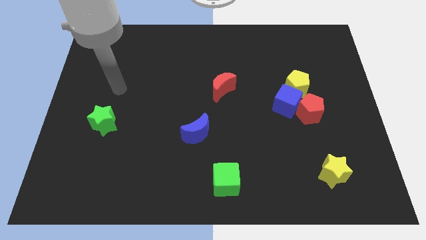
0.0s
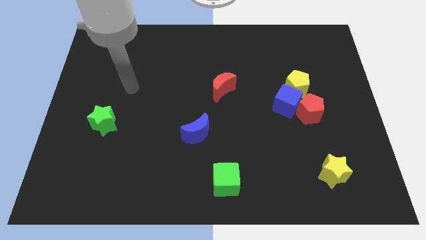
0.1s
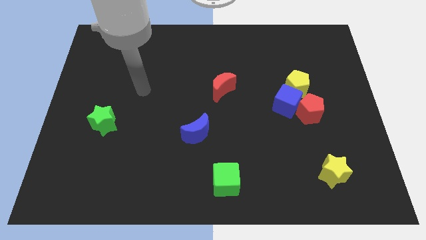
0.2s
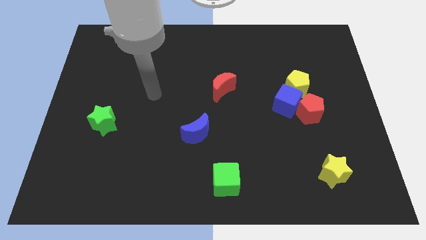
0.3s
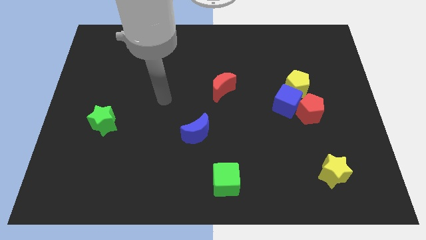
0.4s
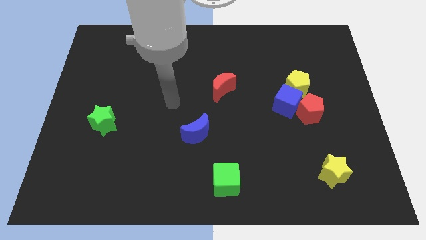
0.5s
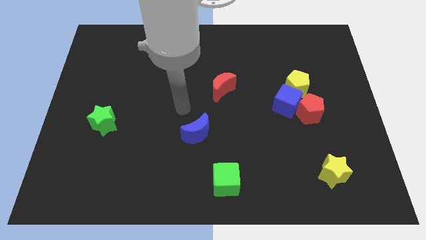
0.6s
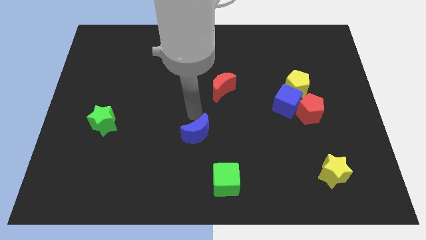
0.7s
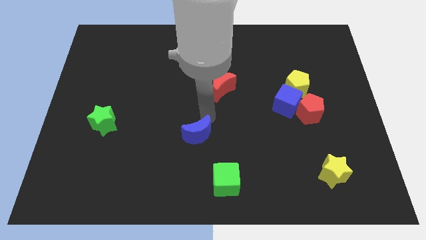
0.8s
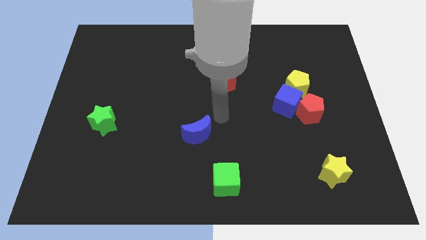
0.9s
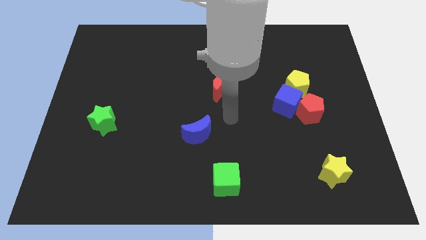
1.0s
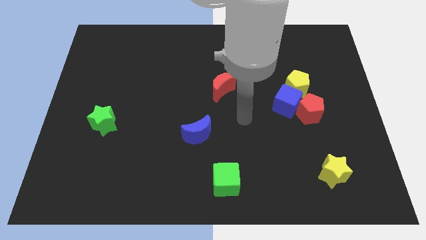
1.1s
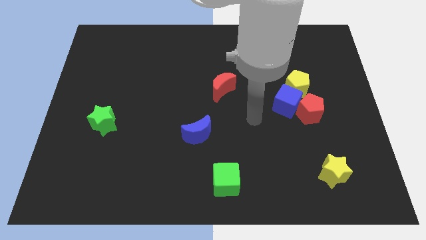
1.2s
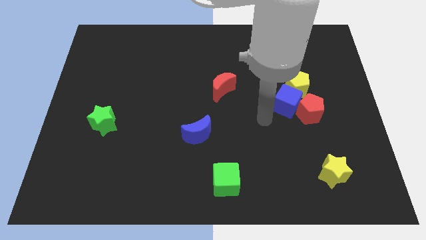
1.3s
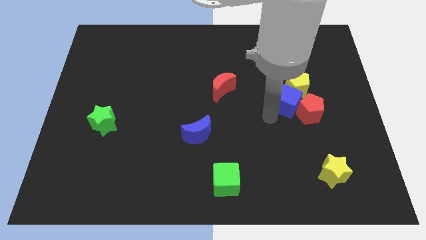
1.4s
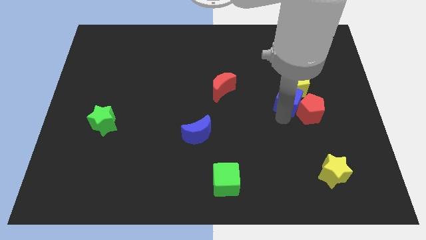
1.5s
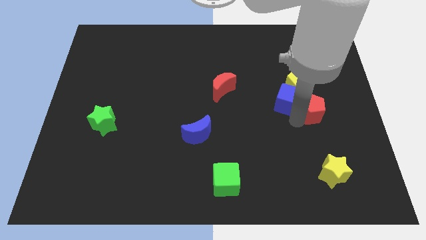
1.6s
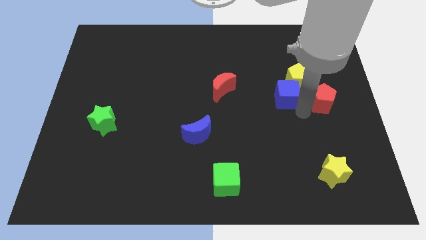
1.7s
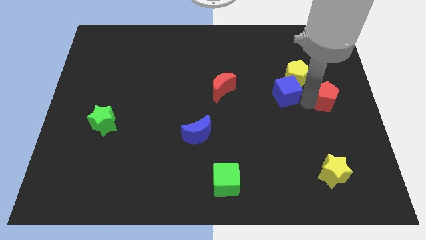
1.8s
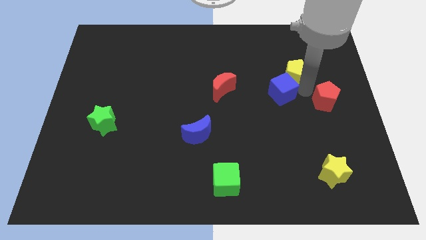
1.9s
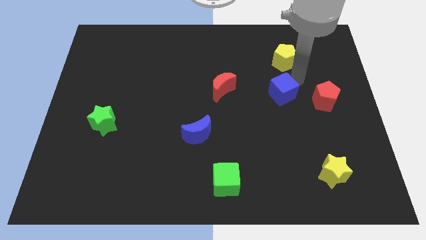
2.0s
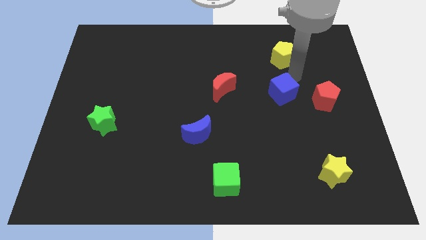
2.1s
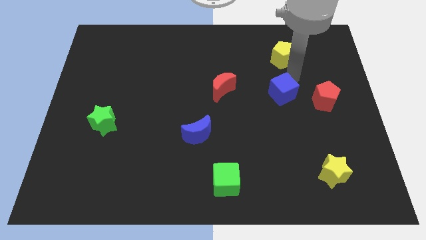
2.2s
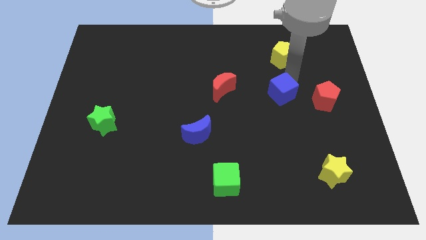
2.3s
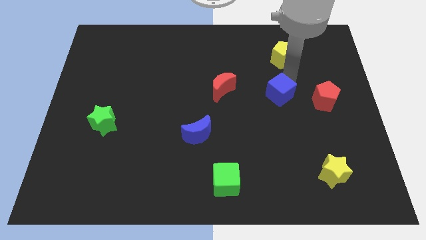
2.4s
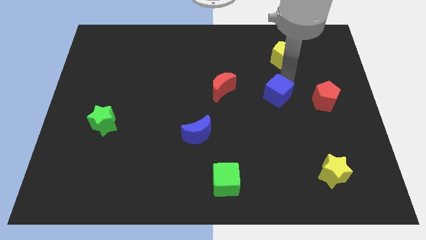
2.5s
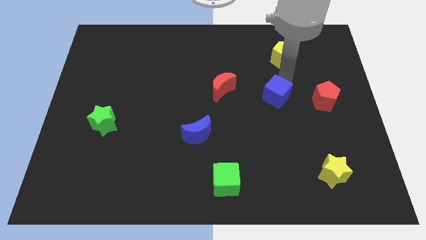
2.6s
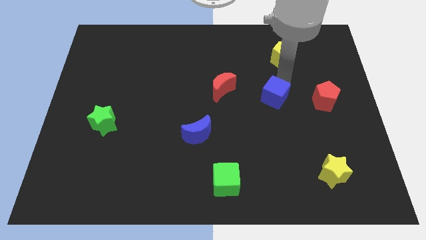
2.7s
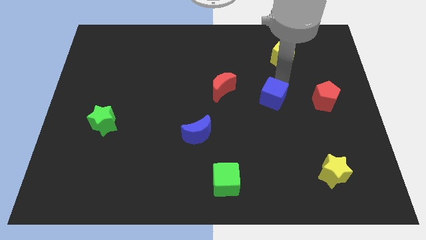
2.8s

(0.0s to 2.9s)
separate the blue cube from the red pentagon and yellow pentagon

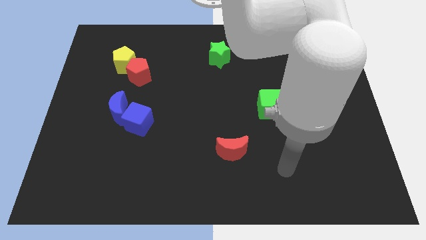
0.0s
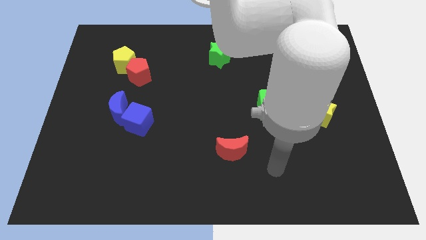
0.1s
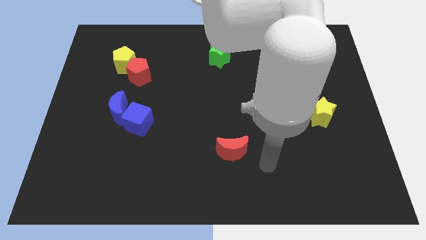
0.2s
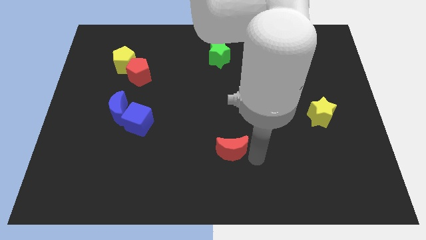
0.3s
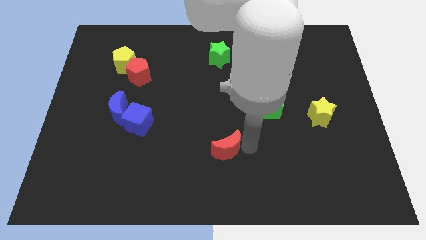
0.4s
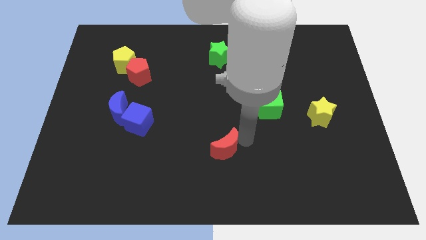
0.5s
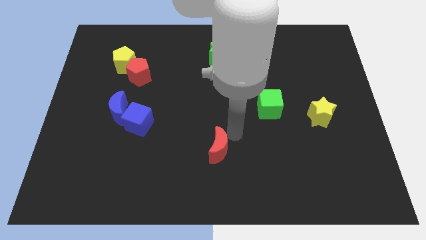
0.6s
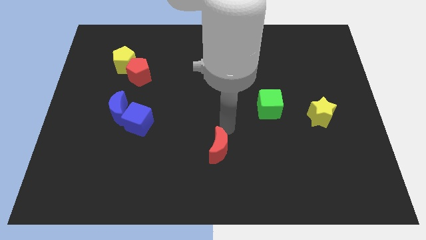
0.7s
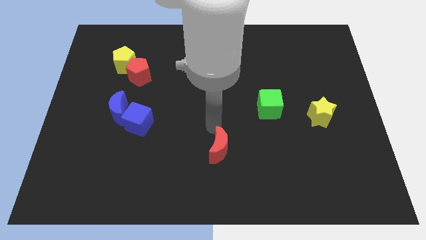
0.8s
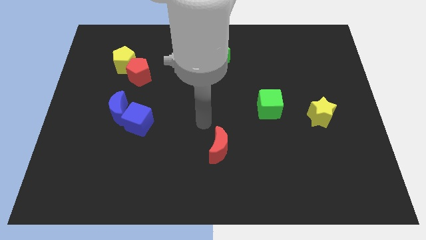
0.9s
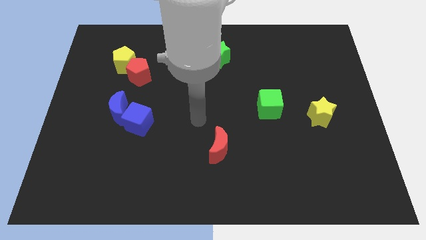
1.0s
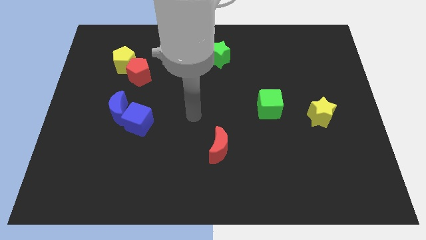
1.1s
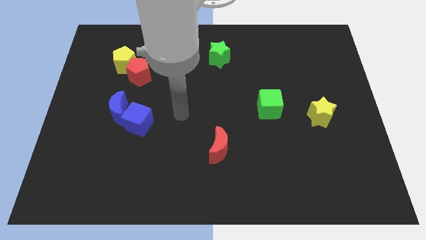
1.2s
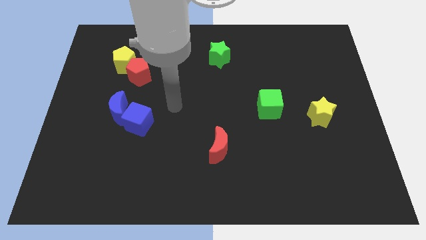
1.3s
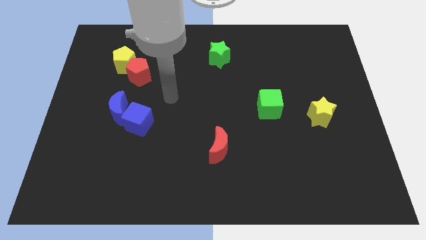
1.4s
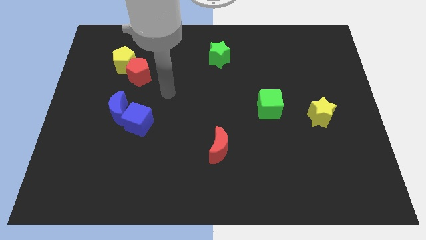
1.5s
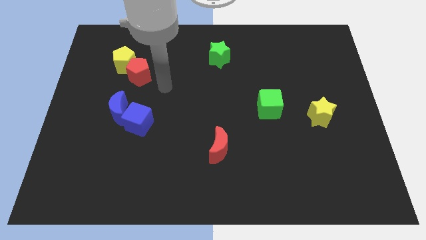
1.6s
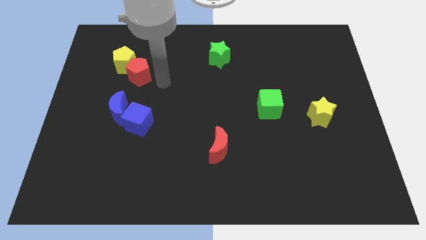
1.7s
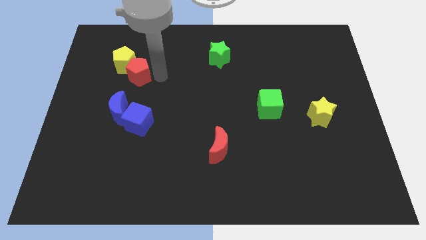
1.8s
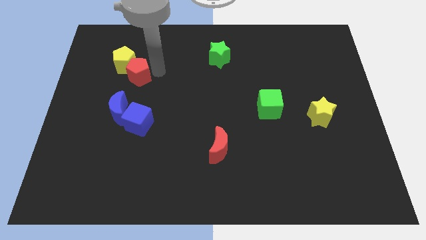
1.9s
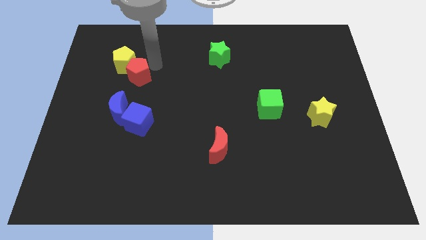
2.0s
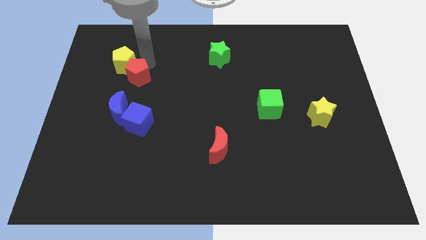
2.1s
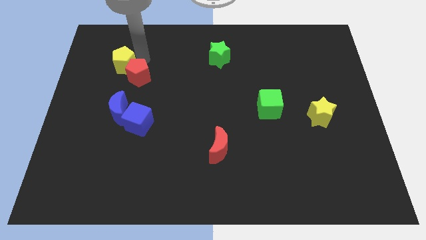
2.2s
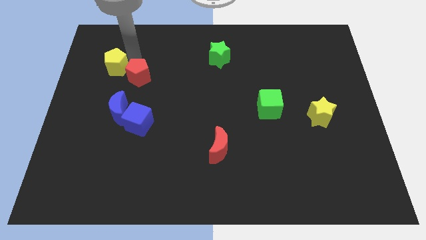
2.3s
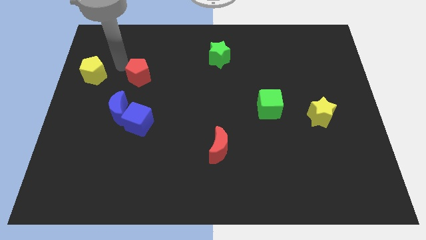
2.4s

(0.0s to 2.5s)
pull the red pentagon apart from the yellow pentagon

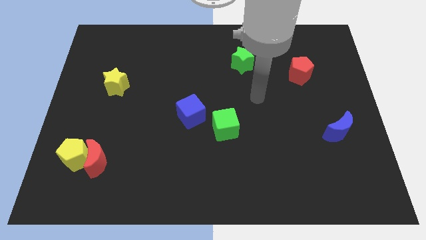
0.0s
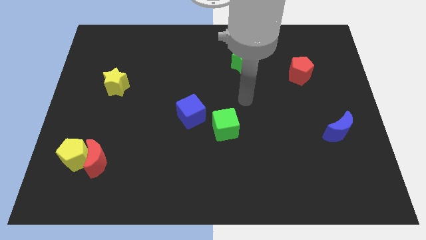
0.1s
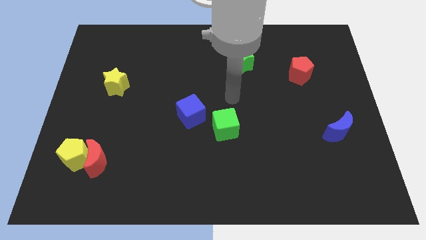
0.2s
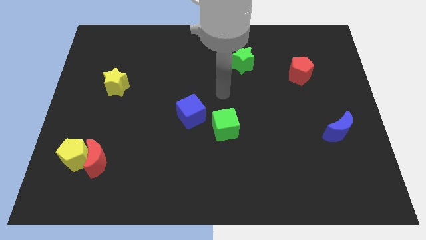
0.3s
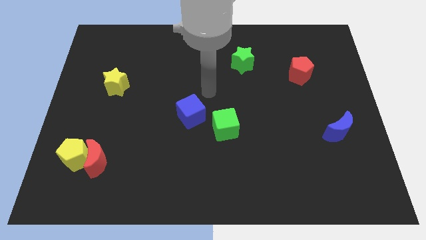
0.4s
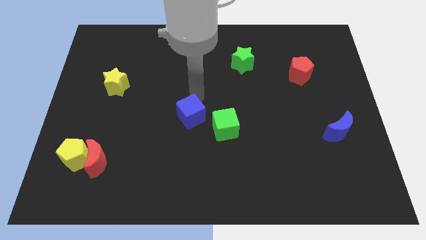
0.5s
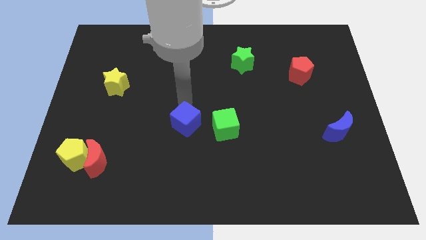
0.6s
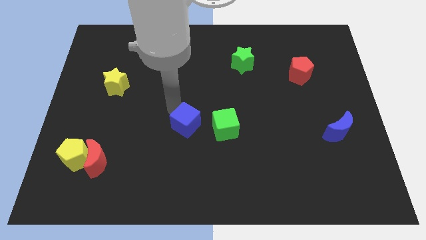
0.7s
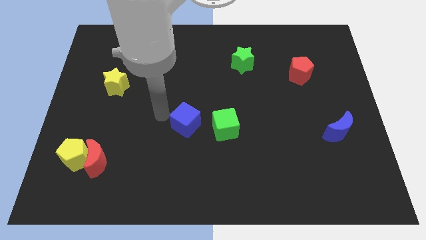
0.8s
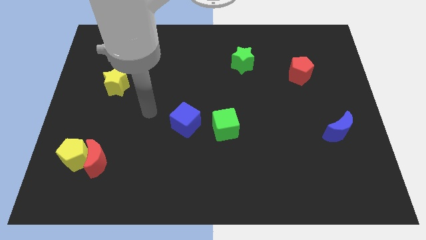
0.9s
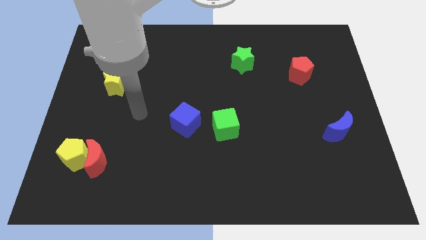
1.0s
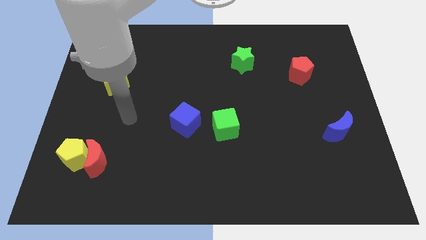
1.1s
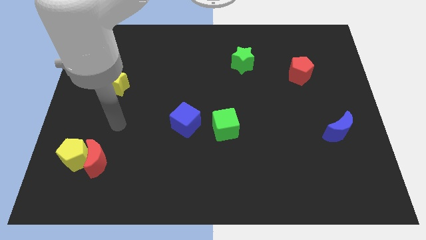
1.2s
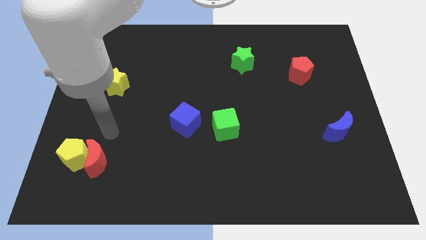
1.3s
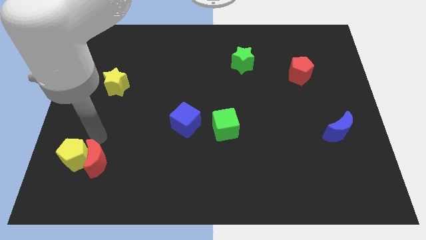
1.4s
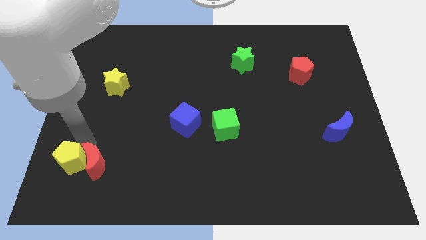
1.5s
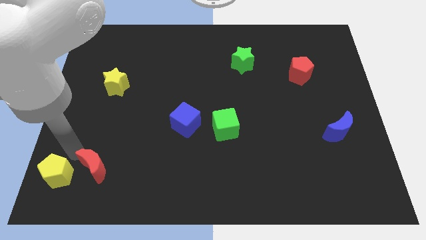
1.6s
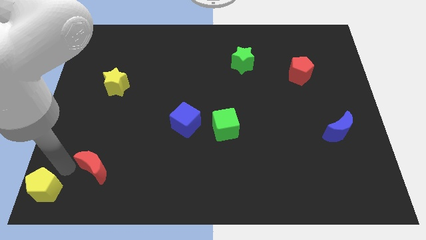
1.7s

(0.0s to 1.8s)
separate the red moon from the yellow pentagon

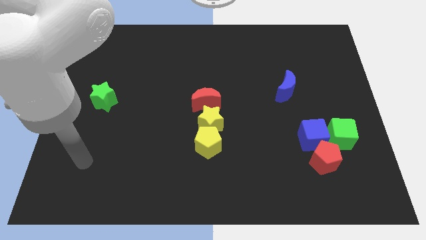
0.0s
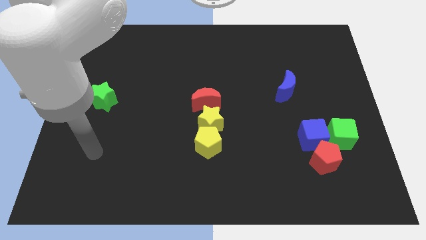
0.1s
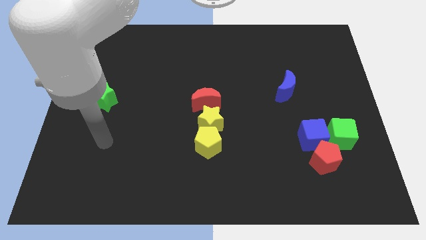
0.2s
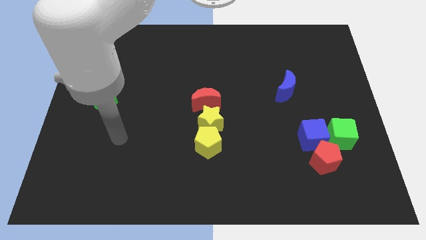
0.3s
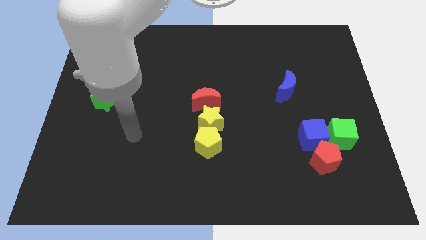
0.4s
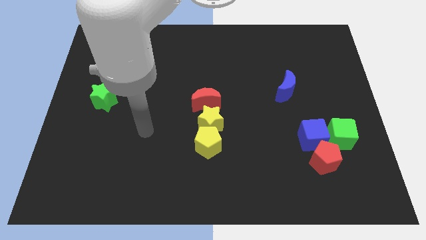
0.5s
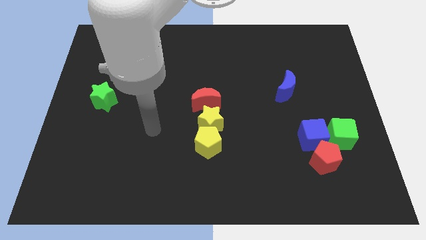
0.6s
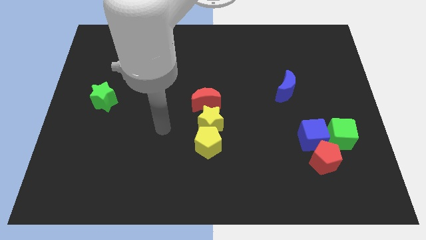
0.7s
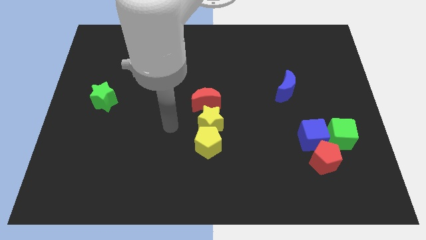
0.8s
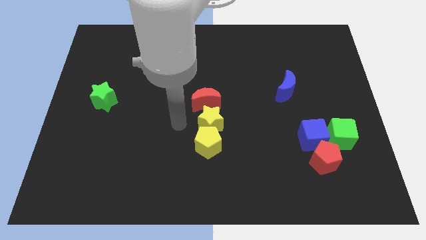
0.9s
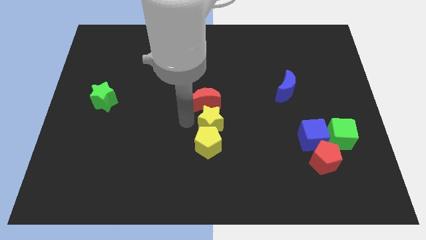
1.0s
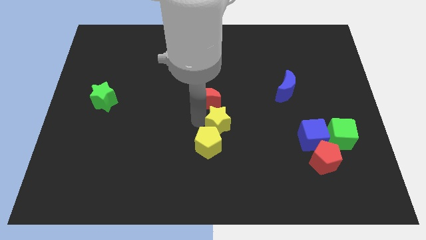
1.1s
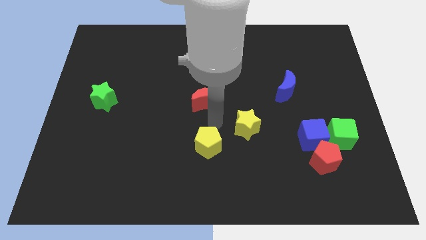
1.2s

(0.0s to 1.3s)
separate the yellow pentagon from the yellow star

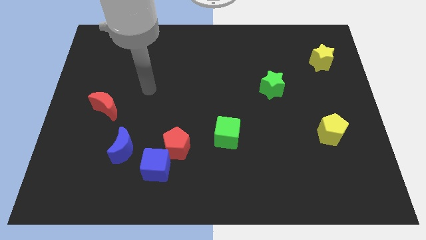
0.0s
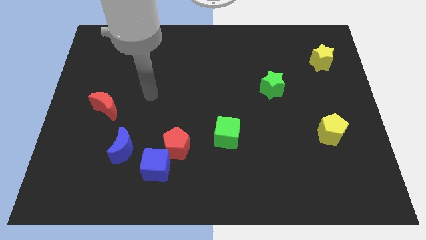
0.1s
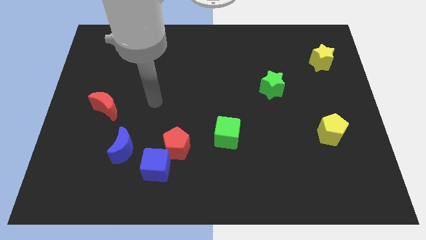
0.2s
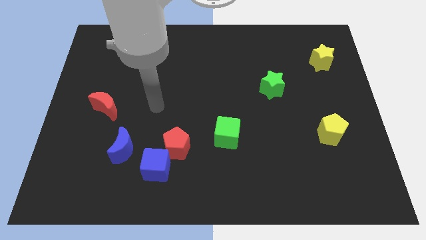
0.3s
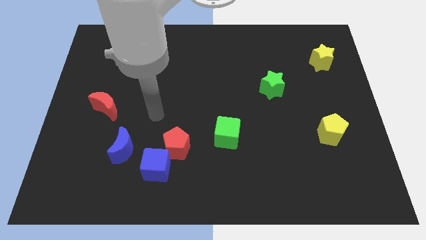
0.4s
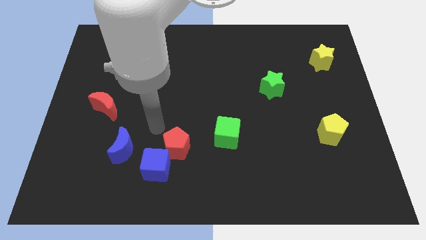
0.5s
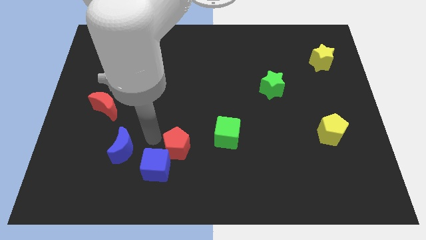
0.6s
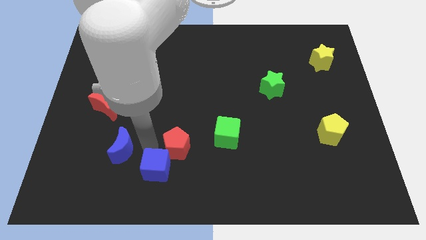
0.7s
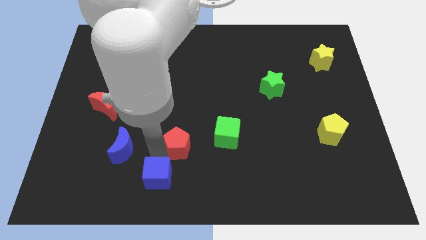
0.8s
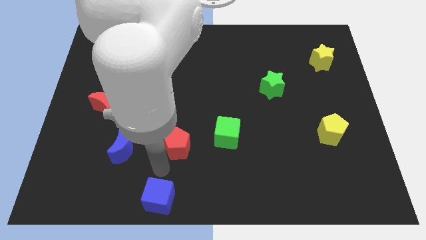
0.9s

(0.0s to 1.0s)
separate the red pentagon from the blue cube
